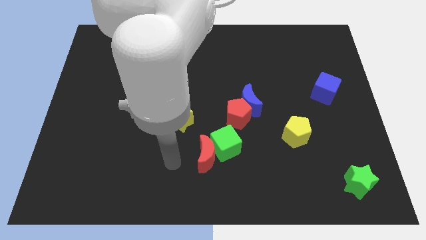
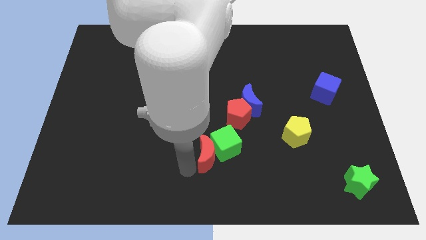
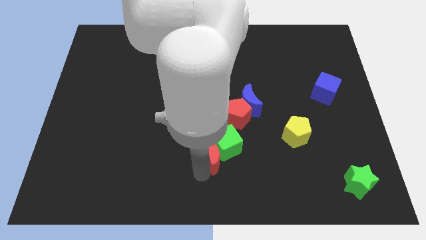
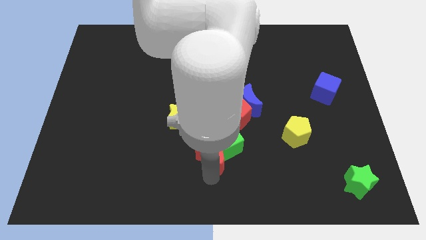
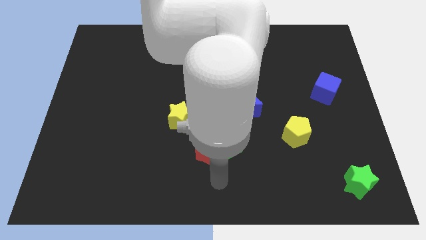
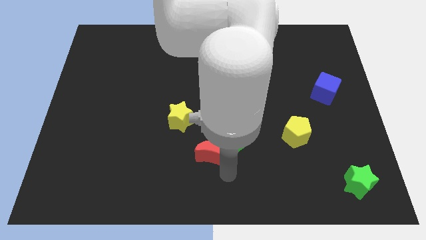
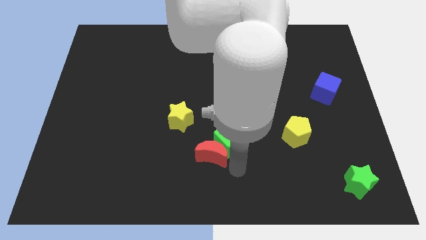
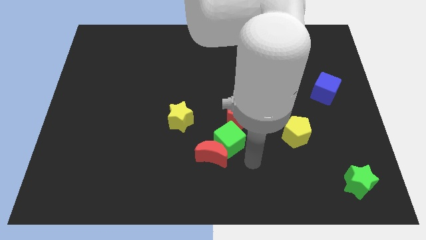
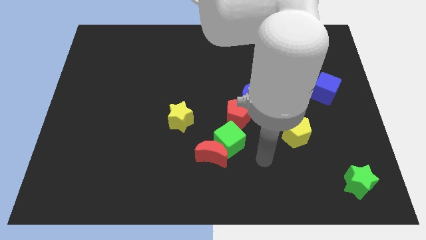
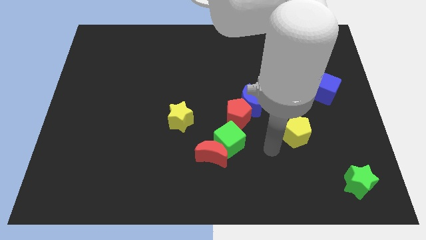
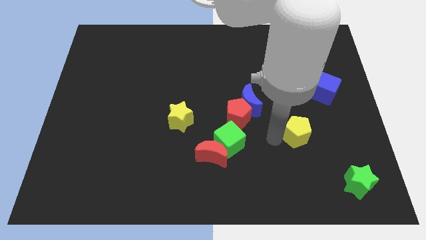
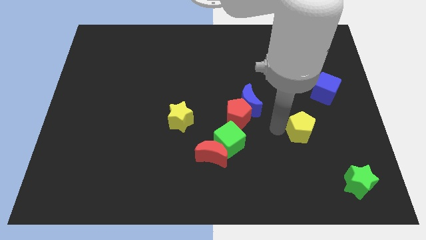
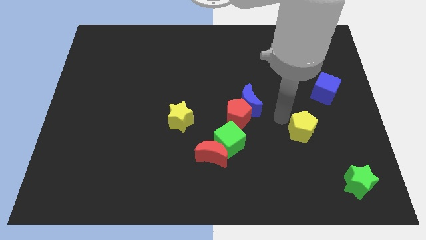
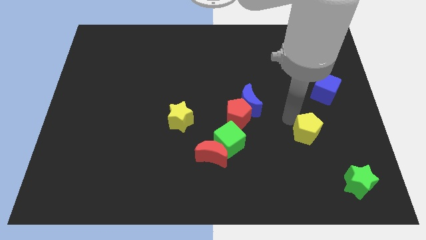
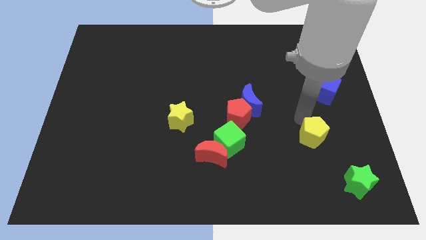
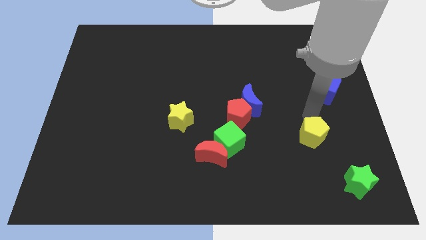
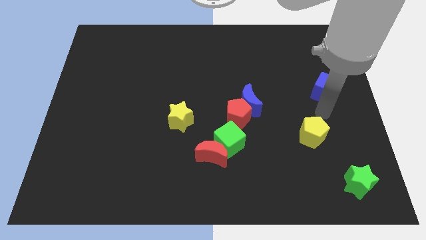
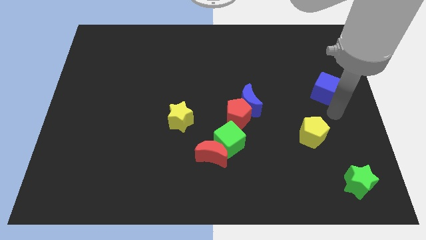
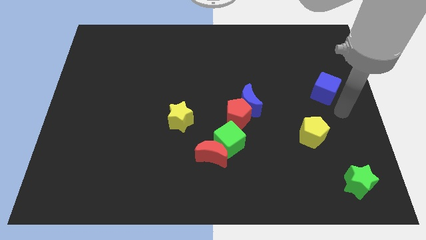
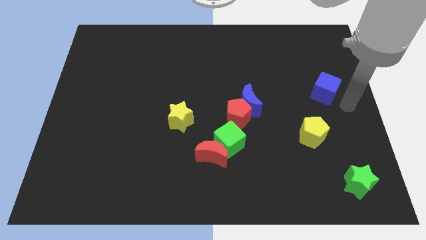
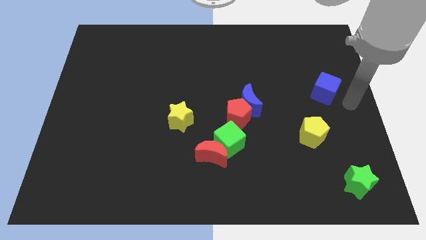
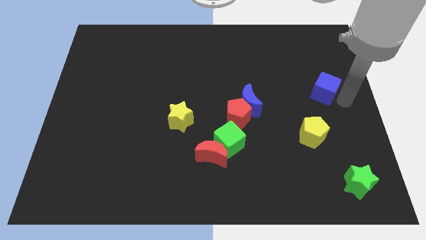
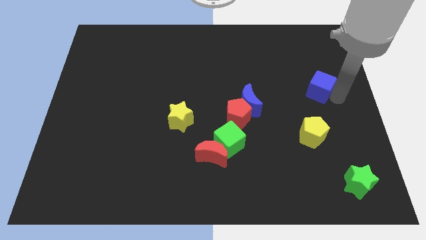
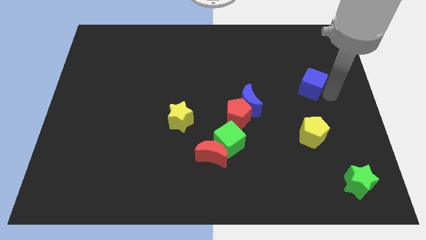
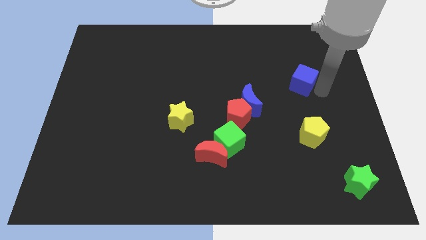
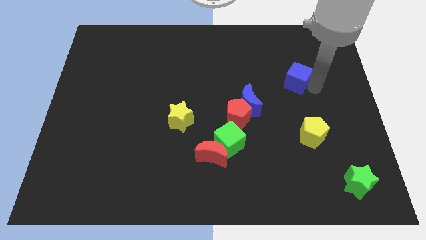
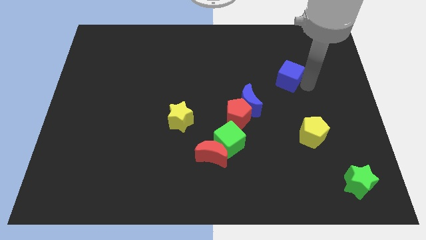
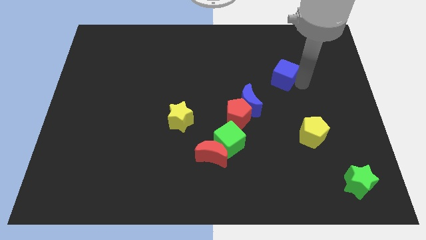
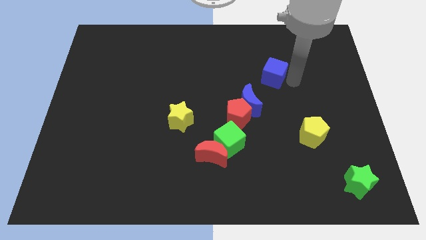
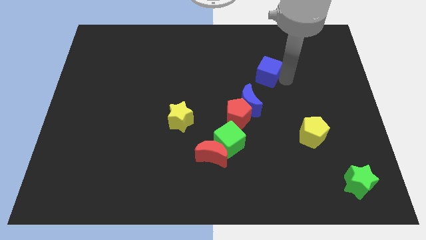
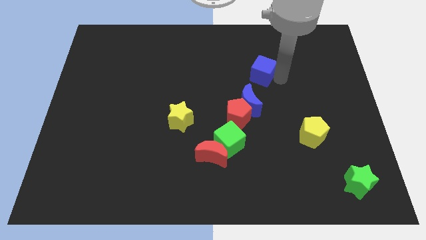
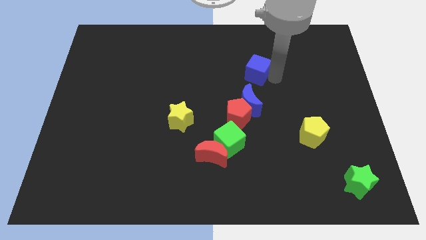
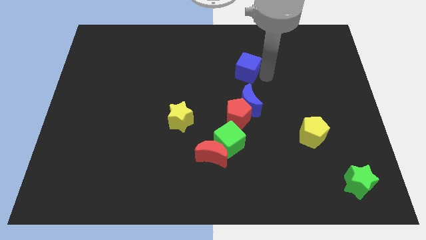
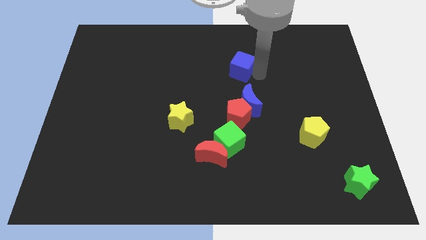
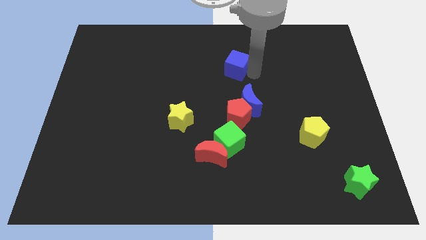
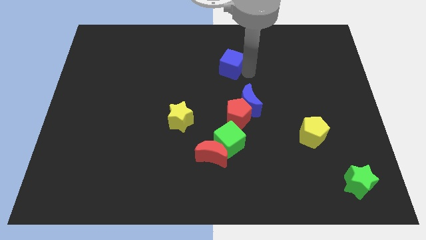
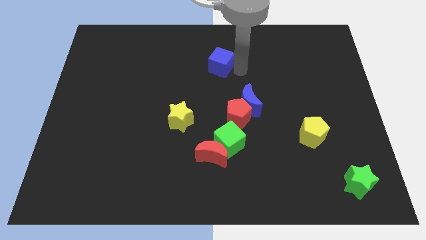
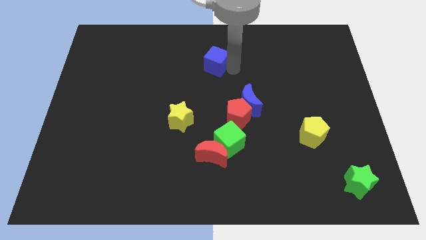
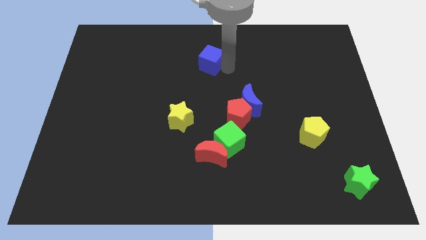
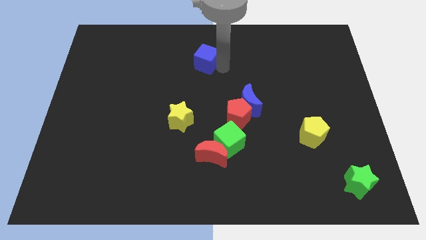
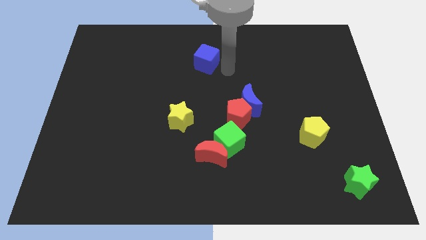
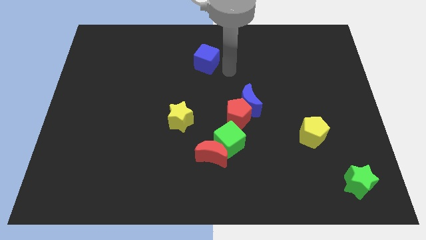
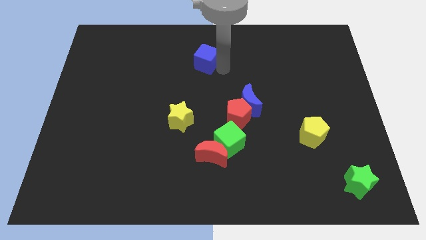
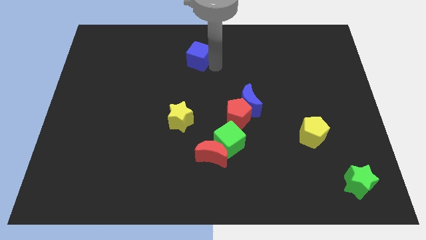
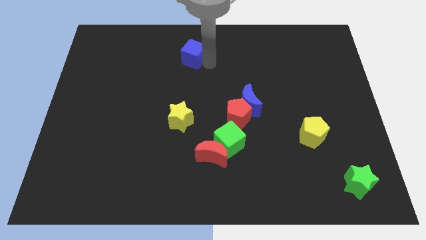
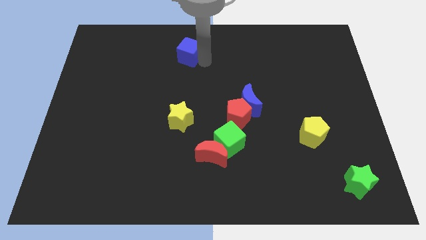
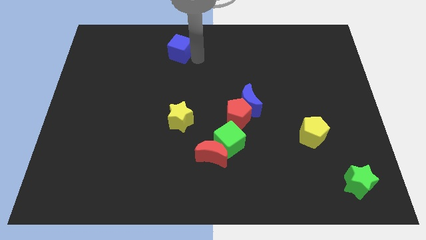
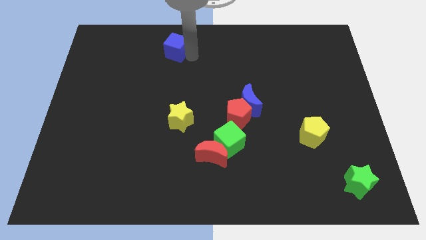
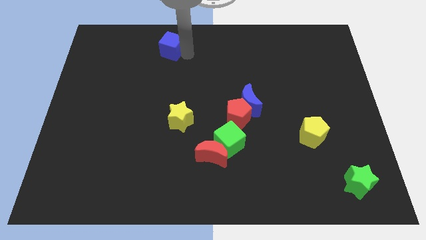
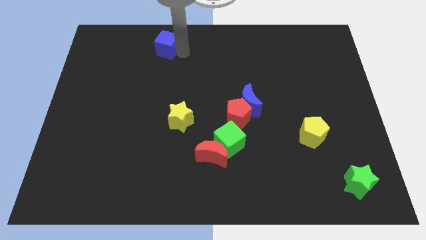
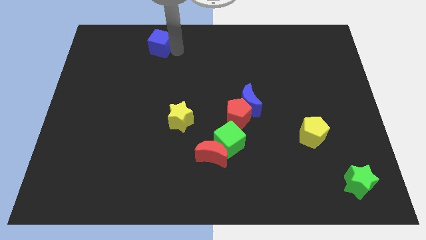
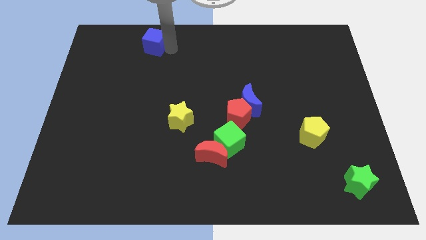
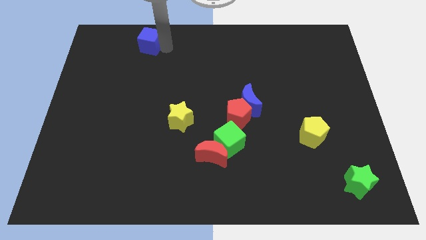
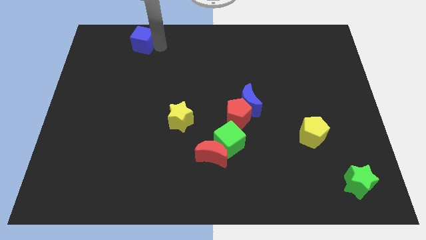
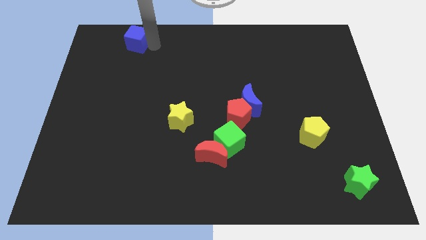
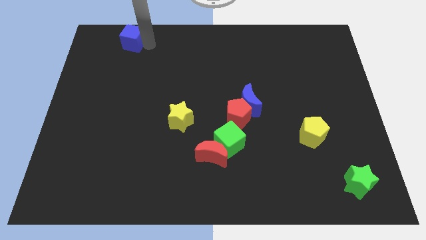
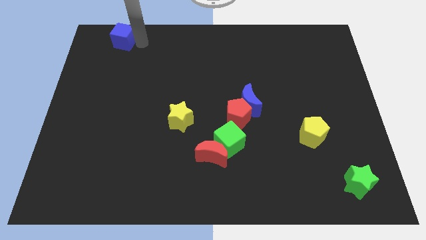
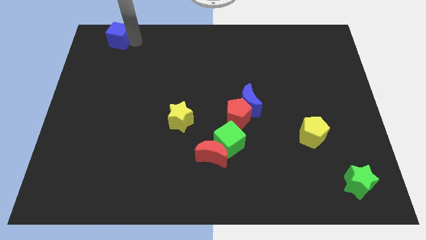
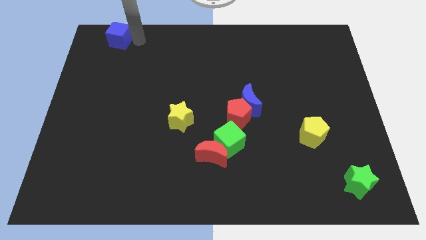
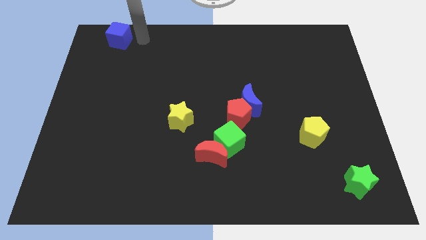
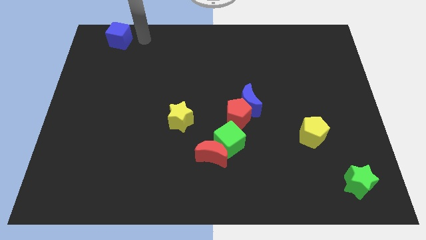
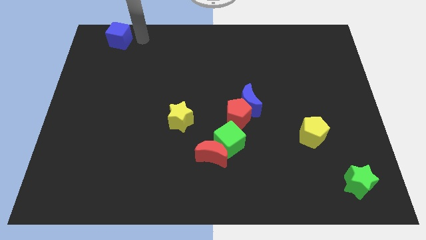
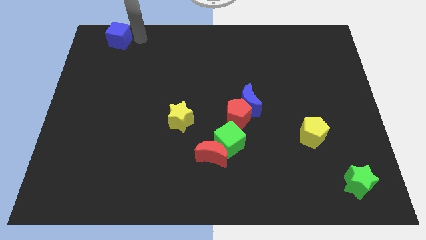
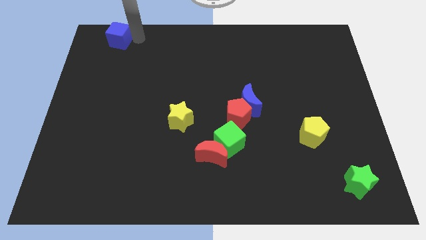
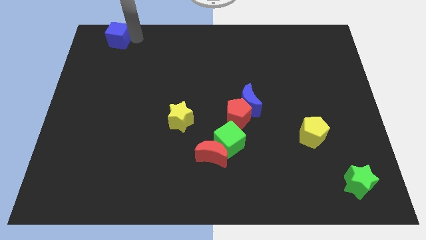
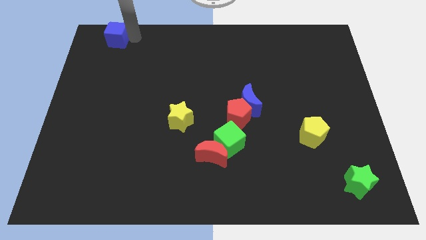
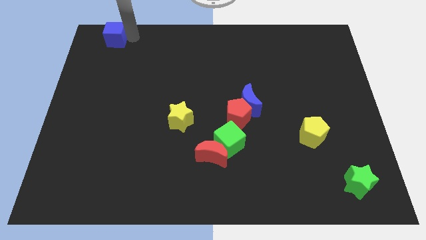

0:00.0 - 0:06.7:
put the blue cube to the top left
